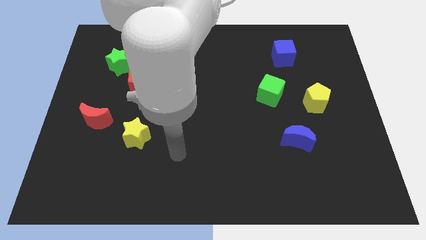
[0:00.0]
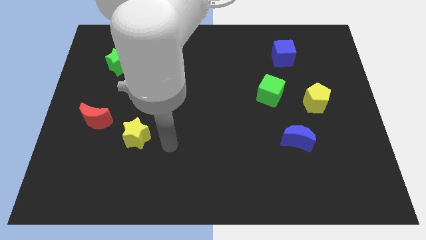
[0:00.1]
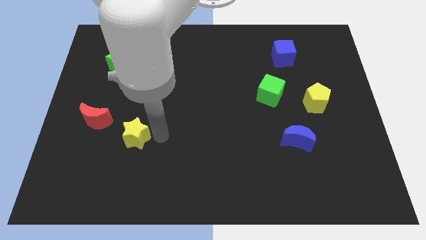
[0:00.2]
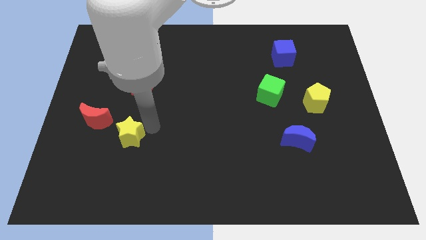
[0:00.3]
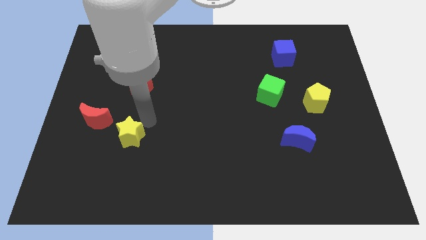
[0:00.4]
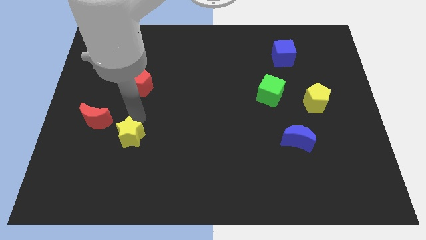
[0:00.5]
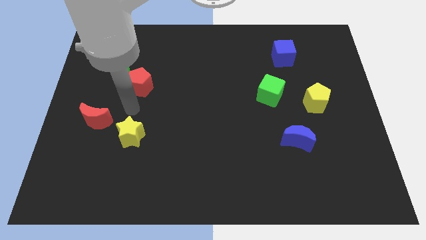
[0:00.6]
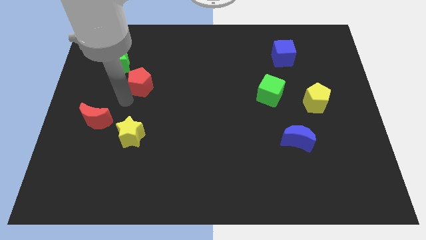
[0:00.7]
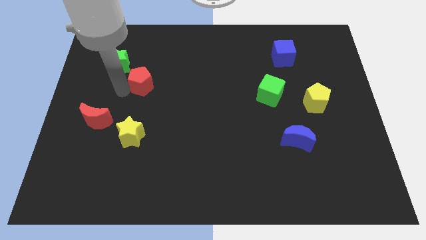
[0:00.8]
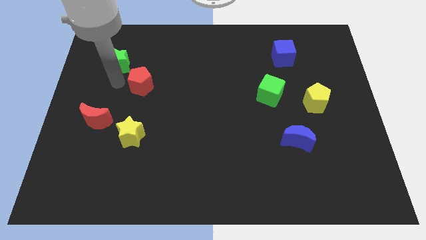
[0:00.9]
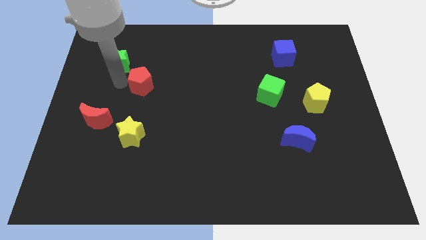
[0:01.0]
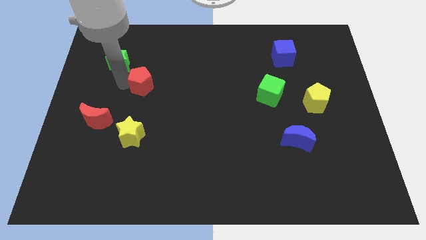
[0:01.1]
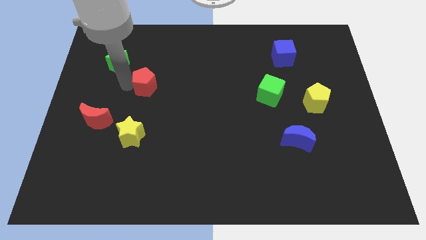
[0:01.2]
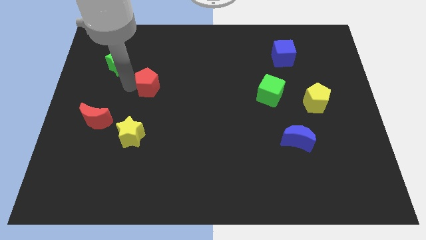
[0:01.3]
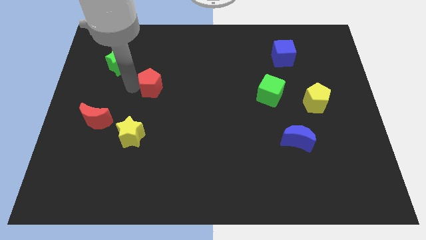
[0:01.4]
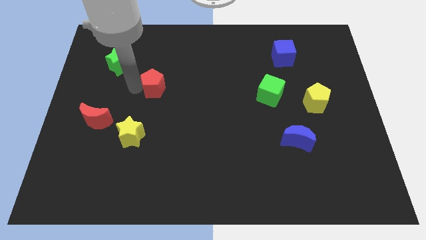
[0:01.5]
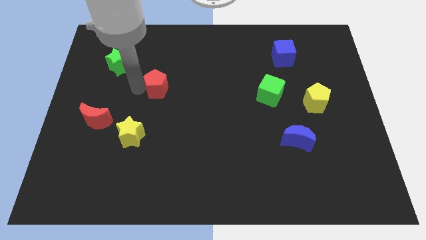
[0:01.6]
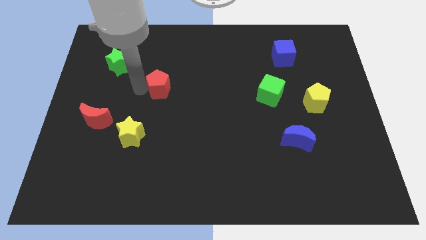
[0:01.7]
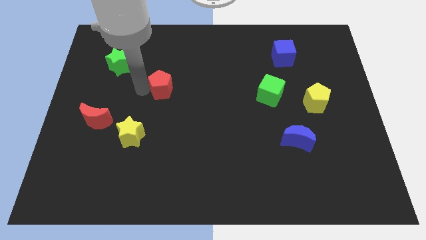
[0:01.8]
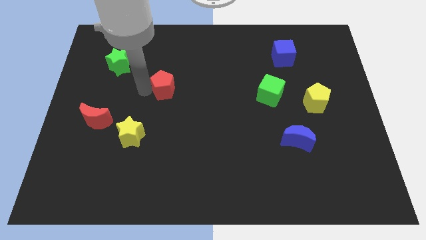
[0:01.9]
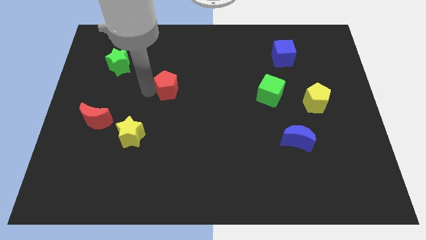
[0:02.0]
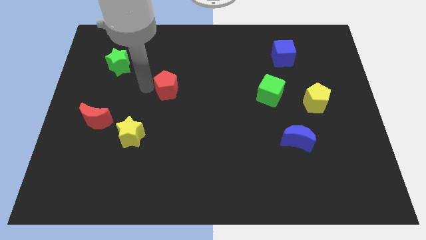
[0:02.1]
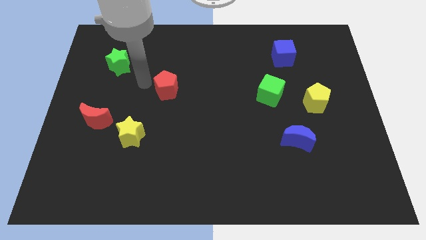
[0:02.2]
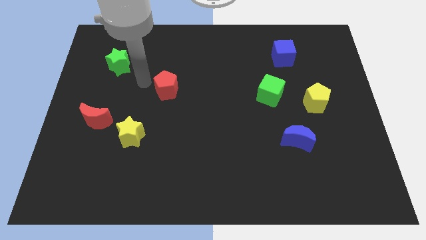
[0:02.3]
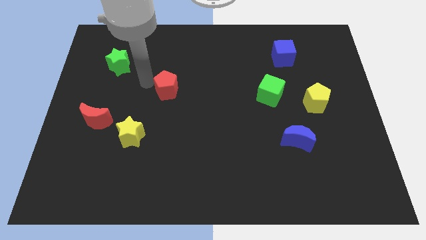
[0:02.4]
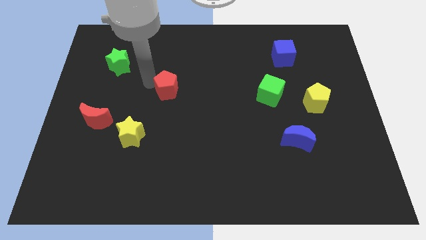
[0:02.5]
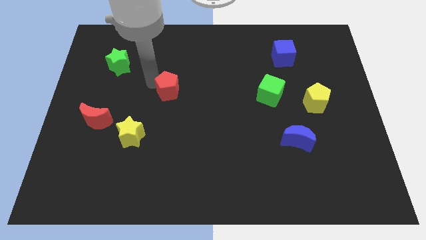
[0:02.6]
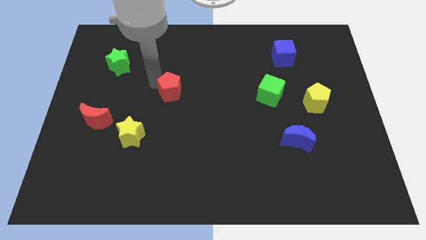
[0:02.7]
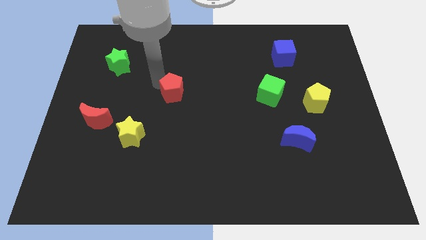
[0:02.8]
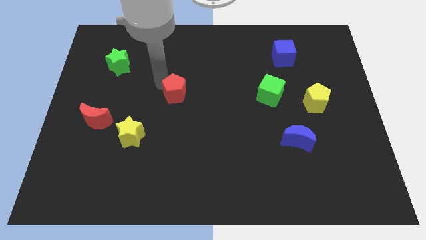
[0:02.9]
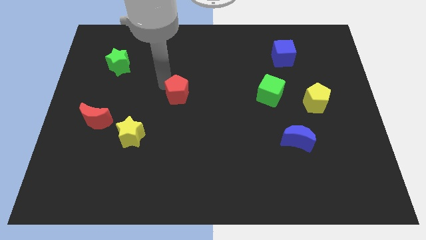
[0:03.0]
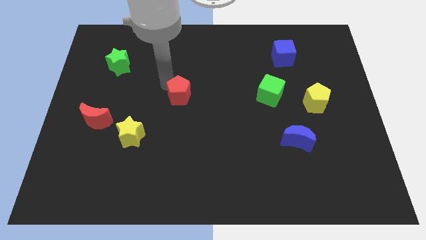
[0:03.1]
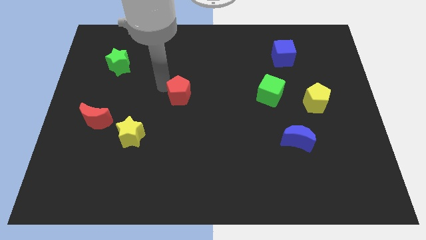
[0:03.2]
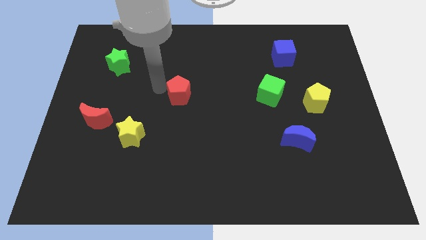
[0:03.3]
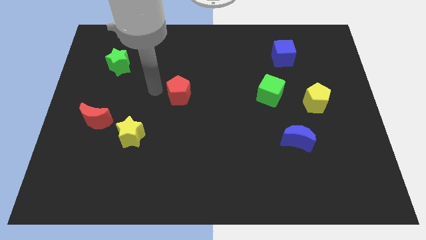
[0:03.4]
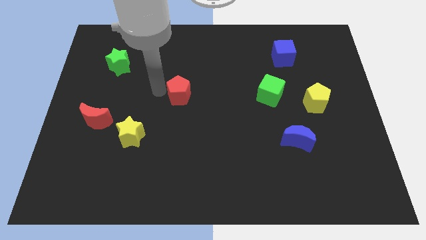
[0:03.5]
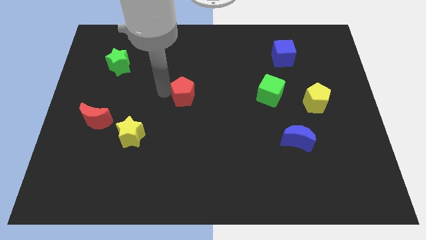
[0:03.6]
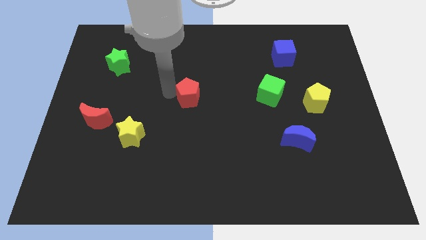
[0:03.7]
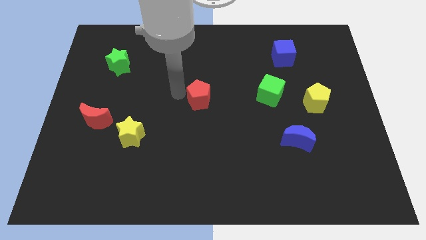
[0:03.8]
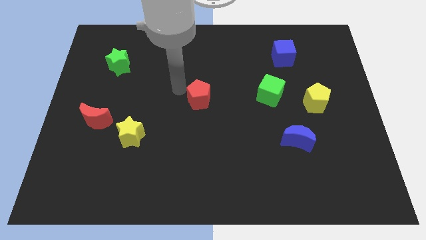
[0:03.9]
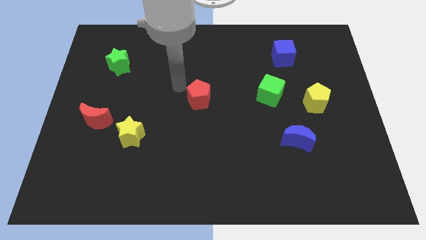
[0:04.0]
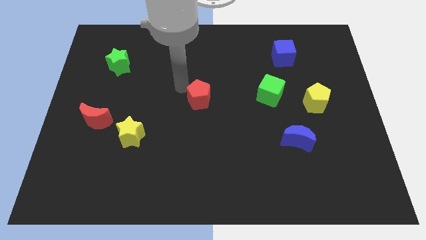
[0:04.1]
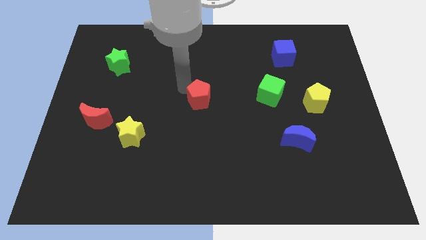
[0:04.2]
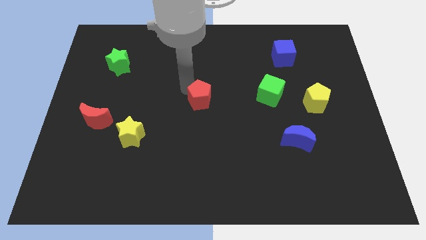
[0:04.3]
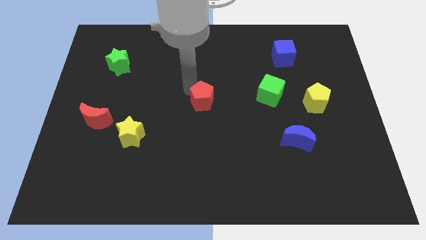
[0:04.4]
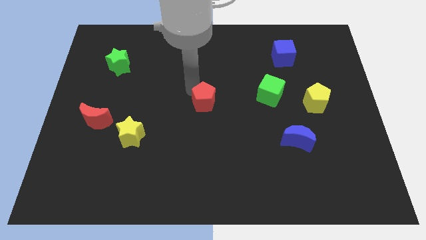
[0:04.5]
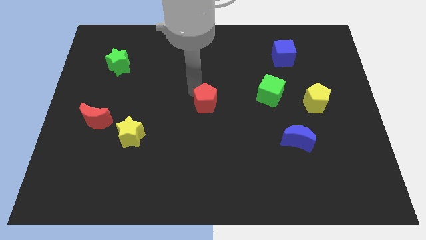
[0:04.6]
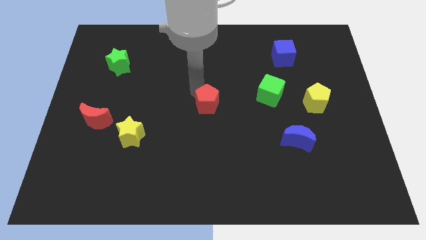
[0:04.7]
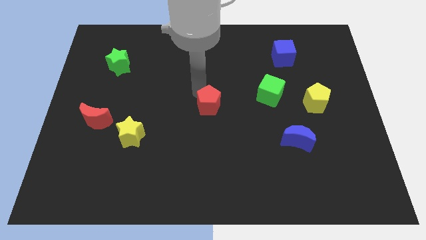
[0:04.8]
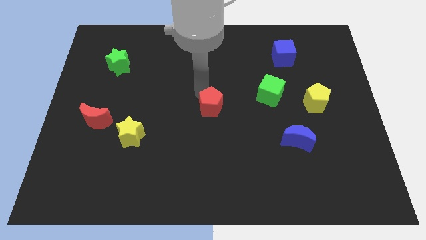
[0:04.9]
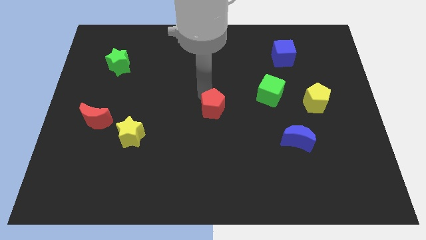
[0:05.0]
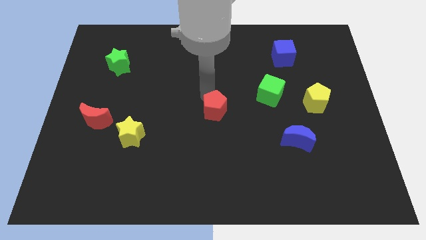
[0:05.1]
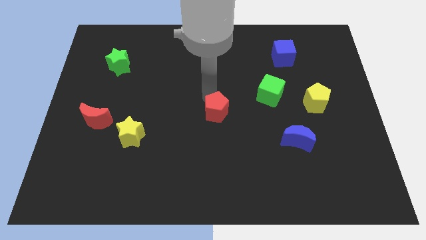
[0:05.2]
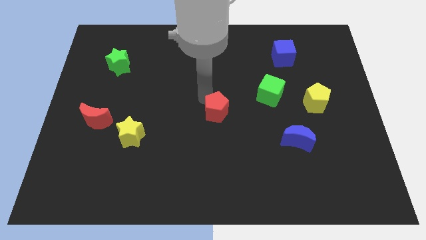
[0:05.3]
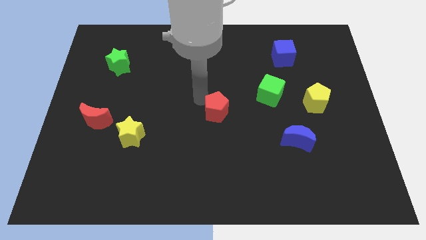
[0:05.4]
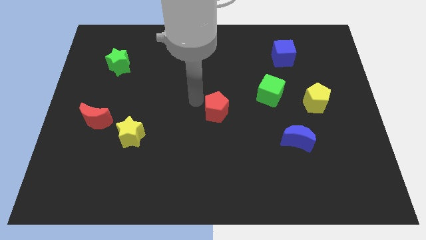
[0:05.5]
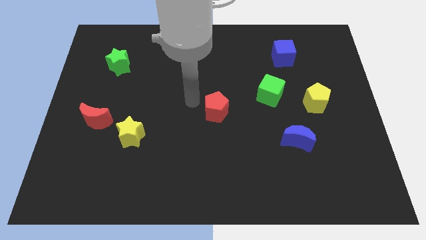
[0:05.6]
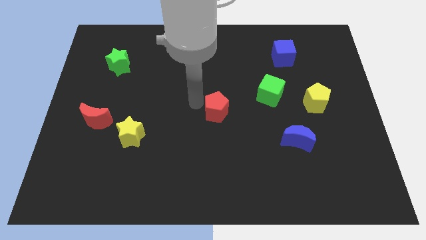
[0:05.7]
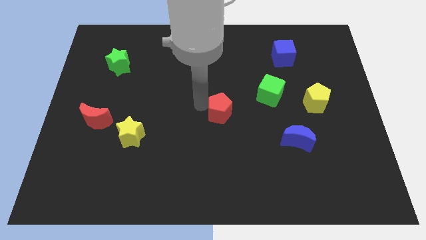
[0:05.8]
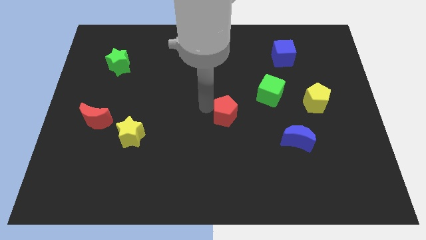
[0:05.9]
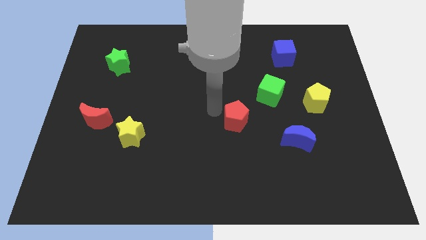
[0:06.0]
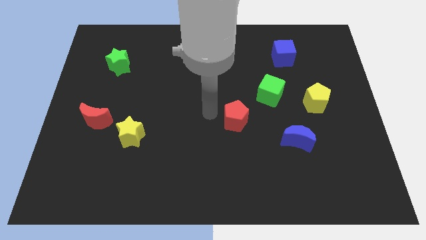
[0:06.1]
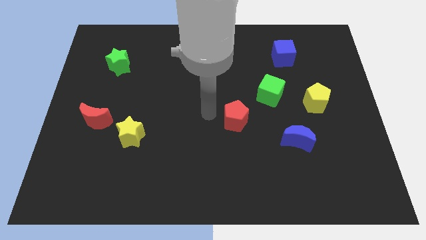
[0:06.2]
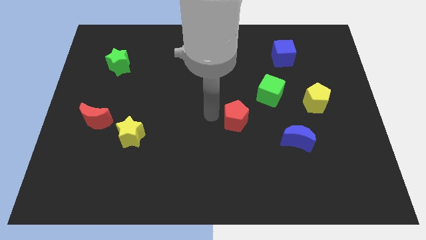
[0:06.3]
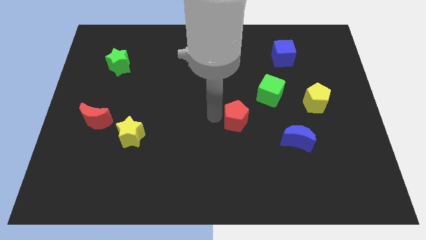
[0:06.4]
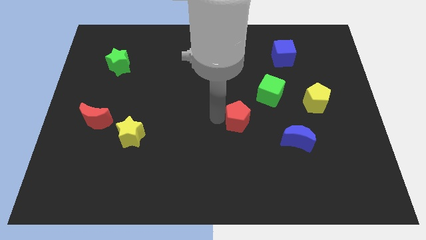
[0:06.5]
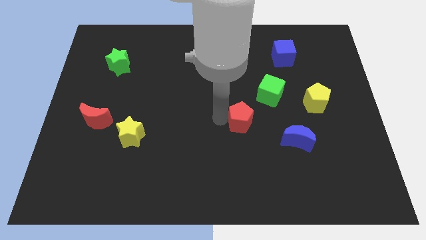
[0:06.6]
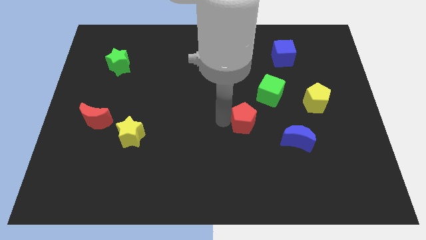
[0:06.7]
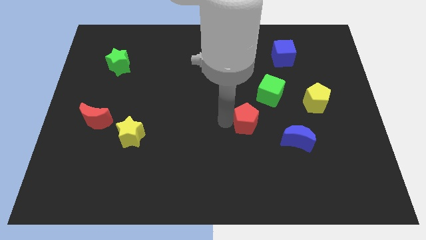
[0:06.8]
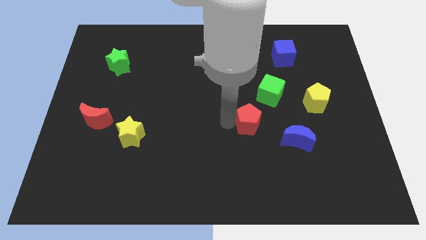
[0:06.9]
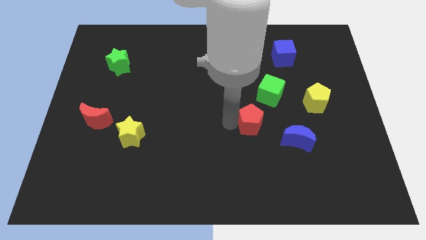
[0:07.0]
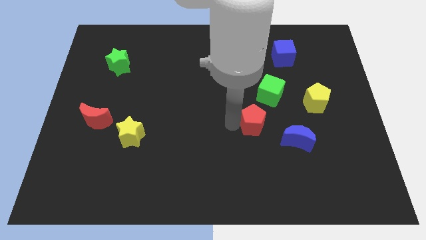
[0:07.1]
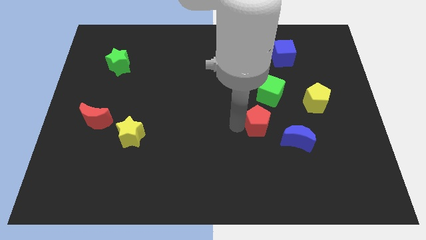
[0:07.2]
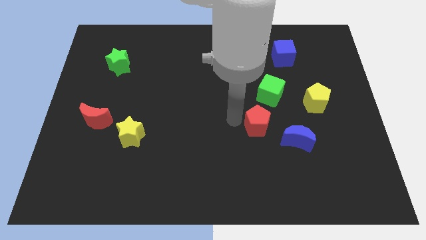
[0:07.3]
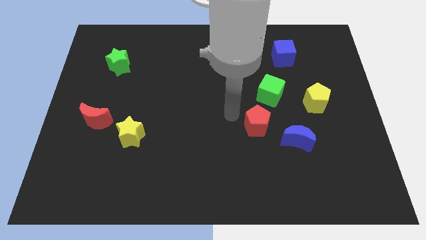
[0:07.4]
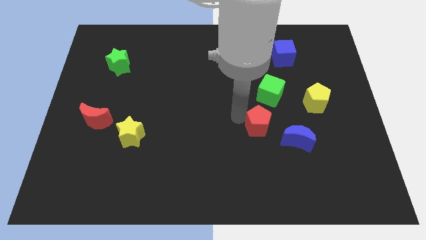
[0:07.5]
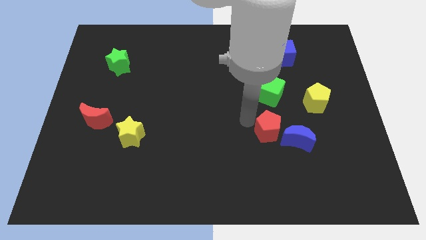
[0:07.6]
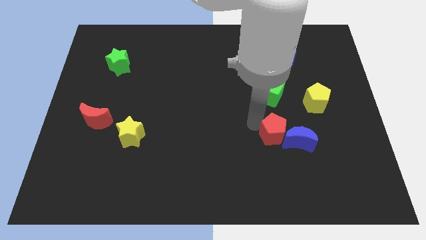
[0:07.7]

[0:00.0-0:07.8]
move the red pentagon close to the blue moon
